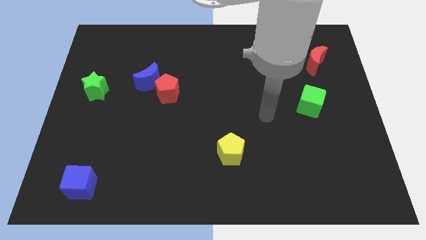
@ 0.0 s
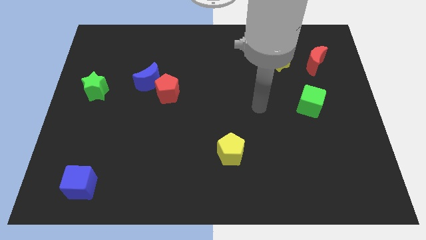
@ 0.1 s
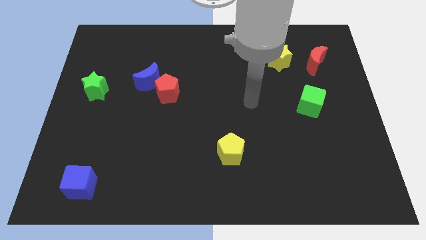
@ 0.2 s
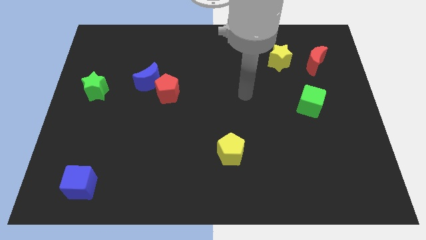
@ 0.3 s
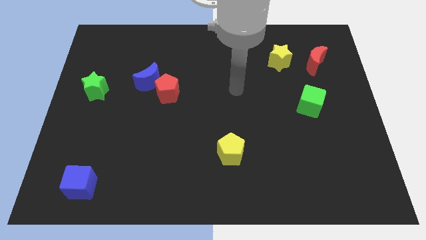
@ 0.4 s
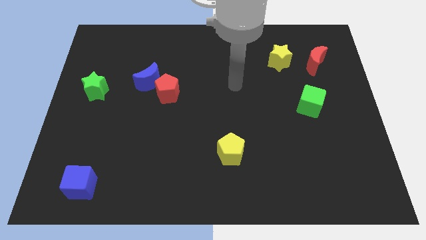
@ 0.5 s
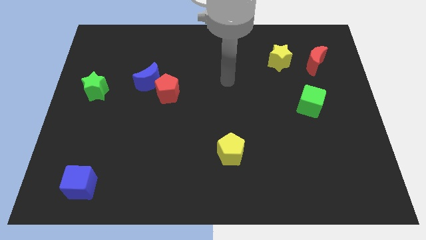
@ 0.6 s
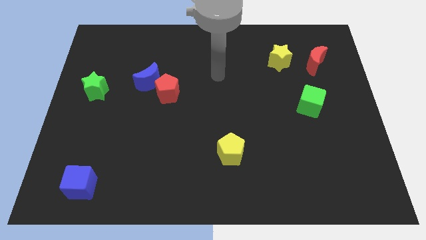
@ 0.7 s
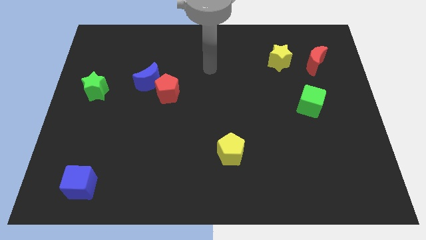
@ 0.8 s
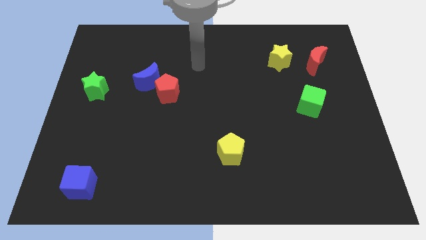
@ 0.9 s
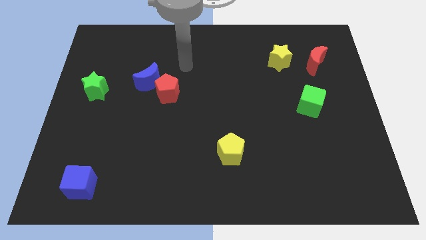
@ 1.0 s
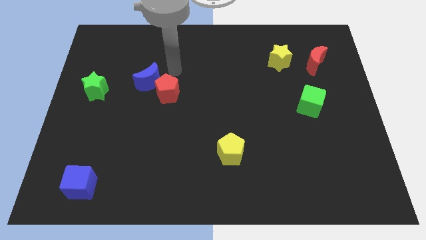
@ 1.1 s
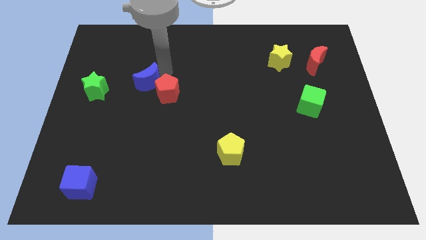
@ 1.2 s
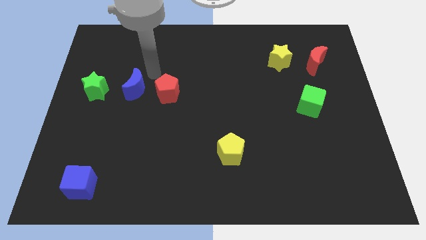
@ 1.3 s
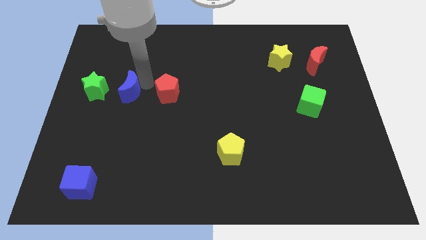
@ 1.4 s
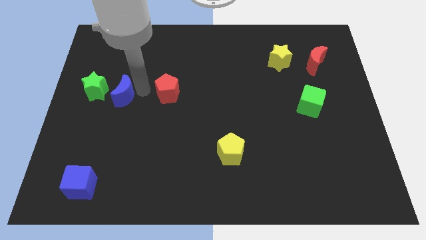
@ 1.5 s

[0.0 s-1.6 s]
move the red pentagon away from the blue moon

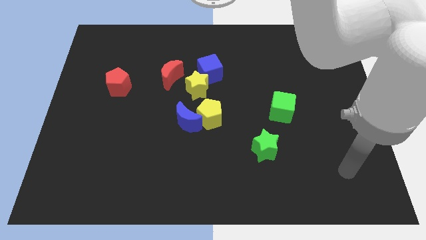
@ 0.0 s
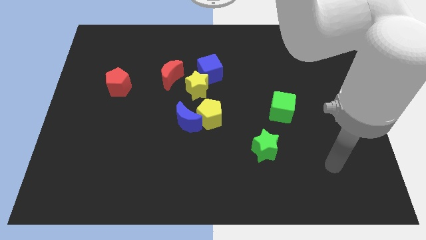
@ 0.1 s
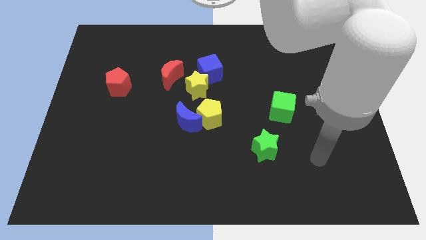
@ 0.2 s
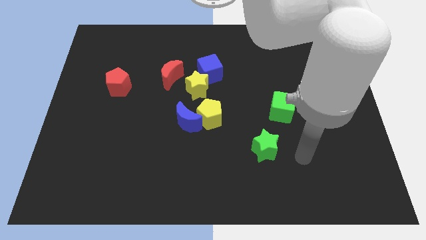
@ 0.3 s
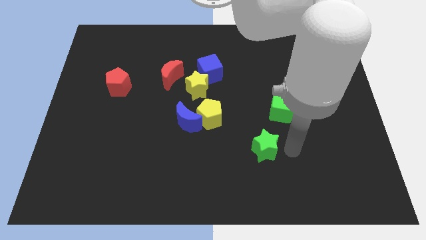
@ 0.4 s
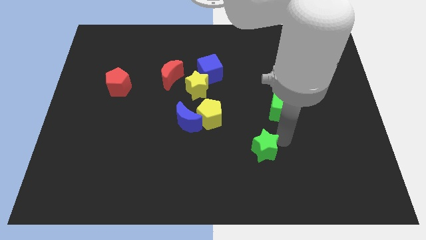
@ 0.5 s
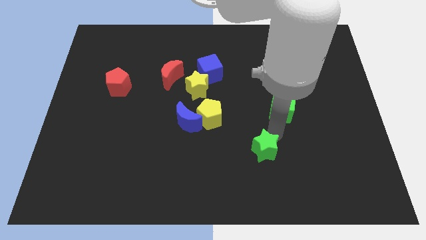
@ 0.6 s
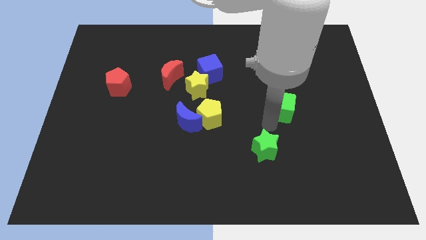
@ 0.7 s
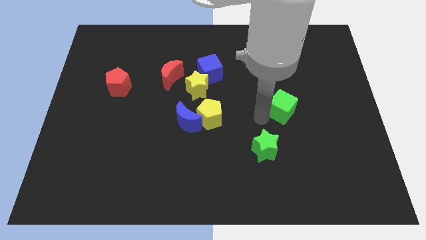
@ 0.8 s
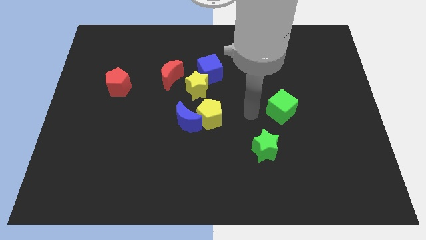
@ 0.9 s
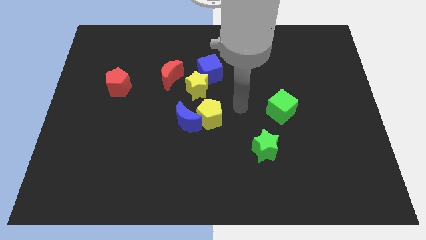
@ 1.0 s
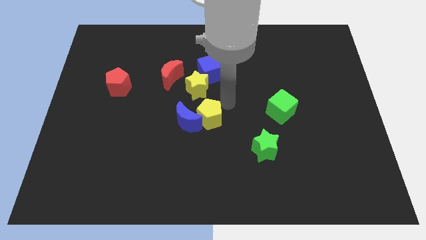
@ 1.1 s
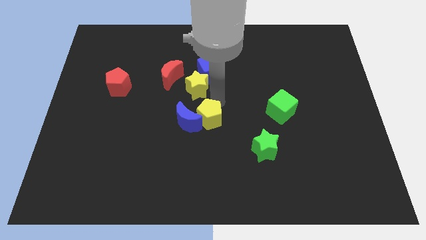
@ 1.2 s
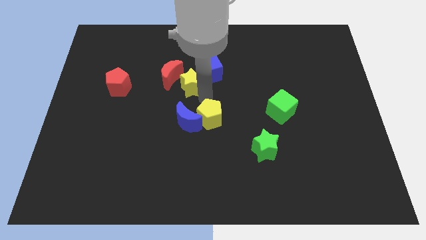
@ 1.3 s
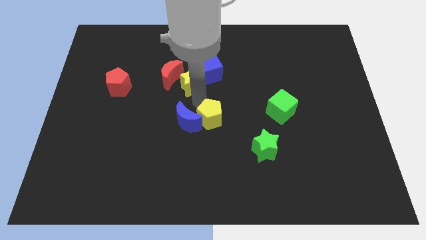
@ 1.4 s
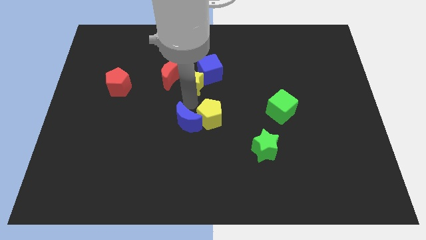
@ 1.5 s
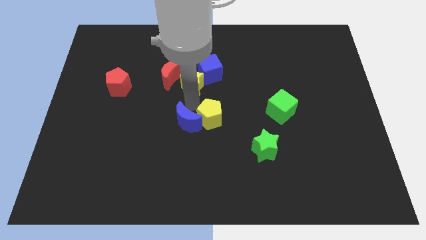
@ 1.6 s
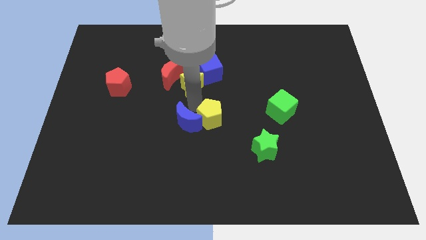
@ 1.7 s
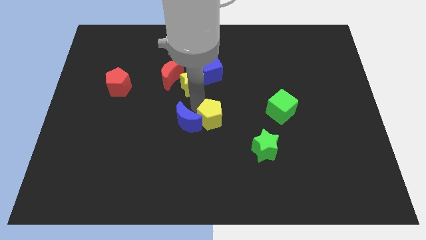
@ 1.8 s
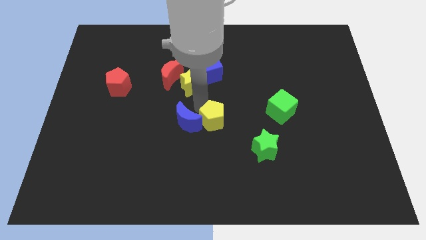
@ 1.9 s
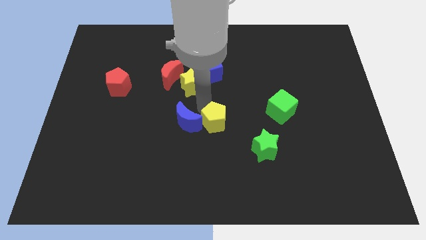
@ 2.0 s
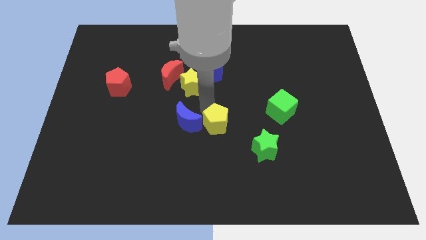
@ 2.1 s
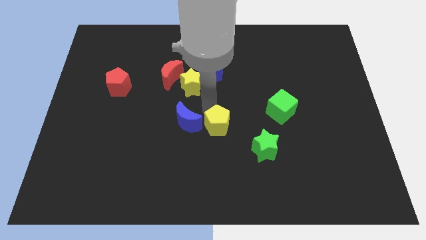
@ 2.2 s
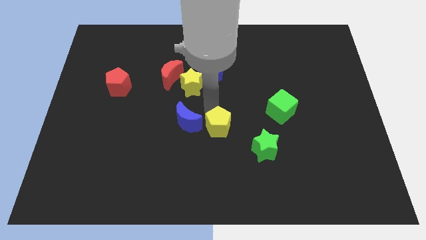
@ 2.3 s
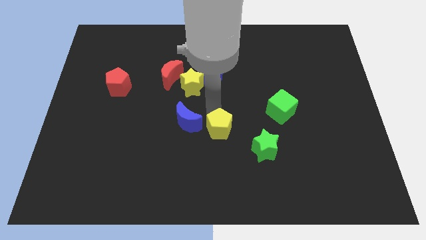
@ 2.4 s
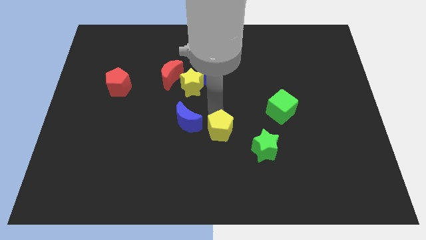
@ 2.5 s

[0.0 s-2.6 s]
separate the yellow pentagon from the blue moon and yellow star

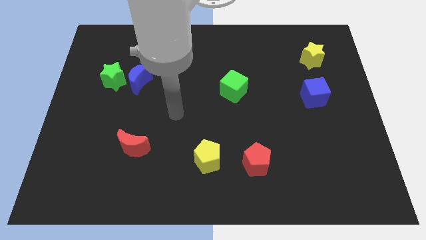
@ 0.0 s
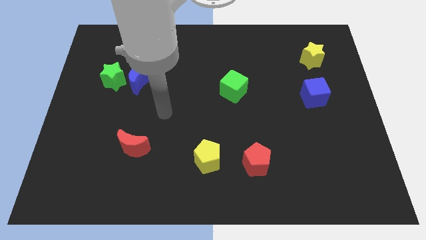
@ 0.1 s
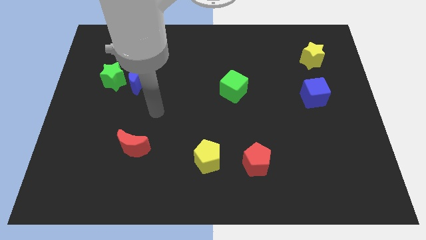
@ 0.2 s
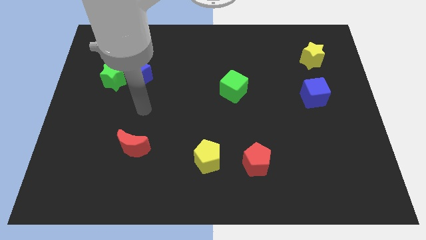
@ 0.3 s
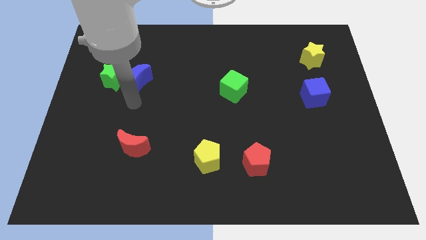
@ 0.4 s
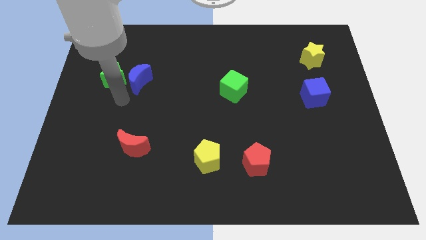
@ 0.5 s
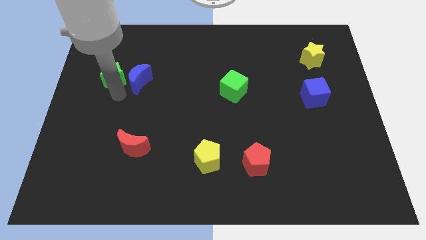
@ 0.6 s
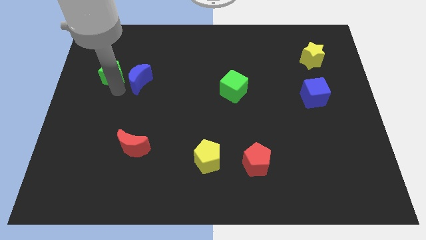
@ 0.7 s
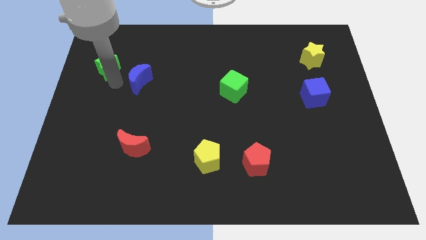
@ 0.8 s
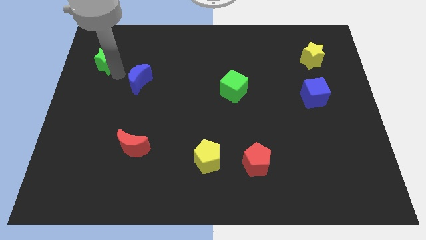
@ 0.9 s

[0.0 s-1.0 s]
move the blue moon away from the green star

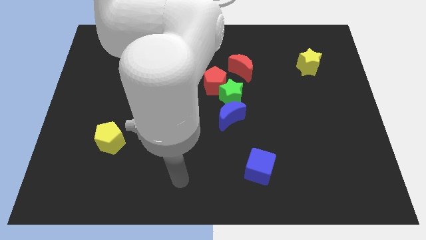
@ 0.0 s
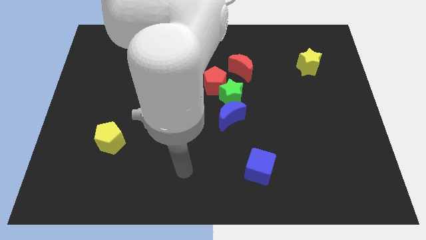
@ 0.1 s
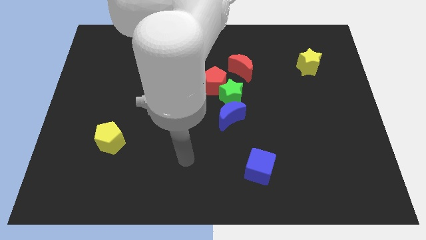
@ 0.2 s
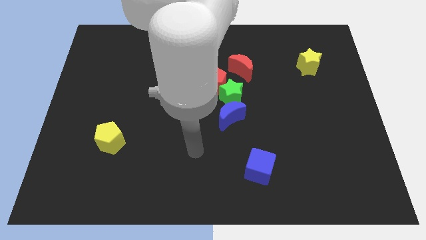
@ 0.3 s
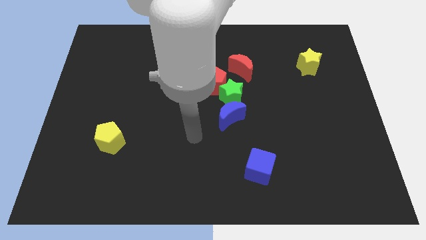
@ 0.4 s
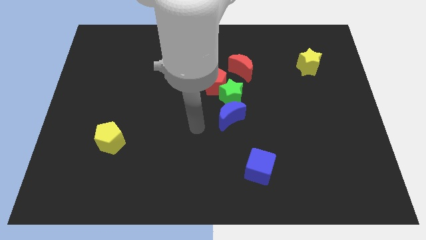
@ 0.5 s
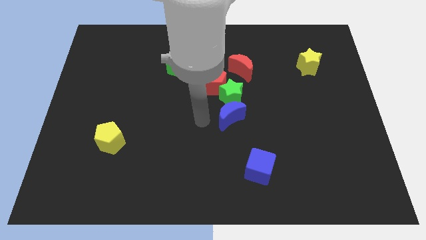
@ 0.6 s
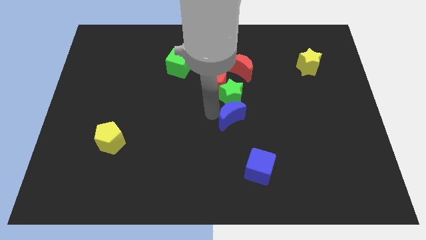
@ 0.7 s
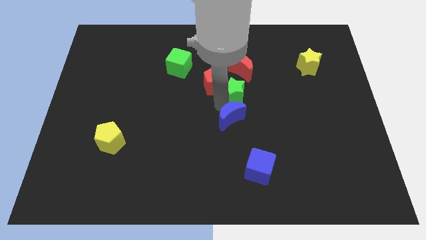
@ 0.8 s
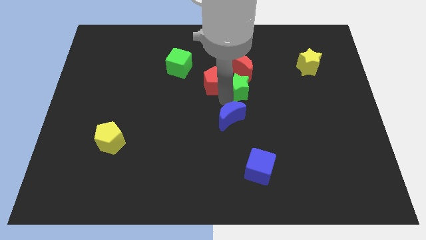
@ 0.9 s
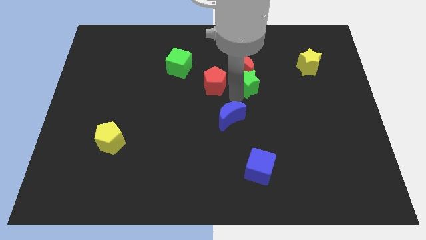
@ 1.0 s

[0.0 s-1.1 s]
separate the blue moon from the green star

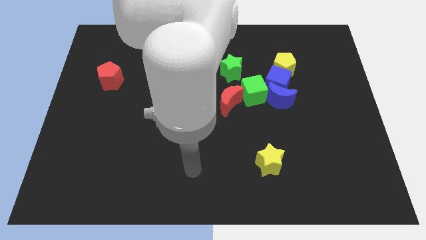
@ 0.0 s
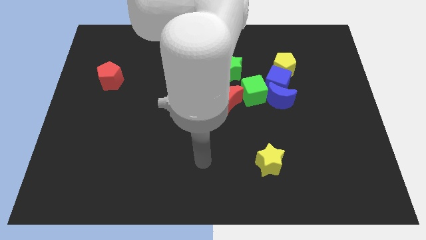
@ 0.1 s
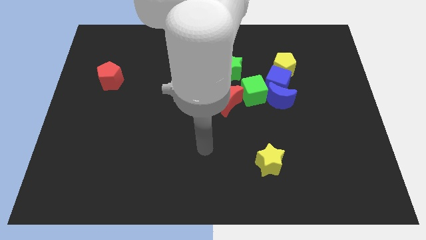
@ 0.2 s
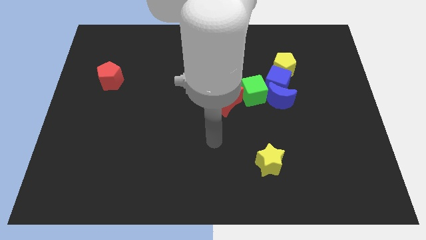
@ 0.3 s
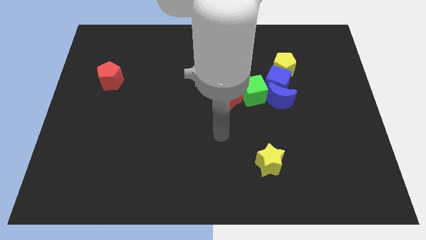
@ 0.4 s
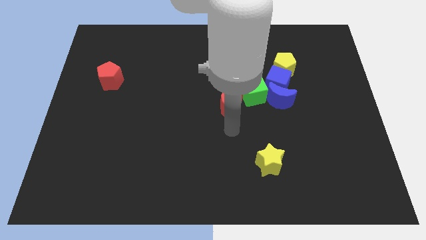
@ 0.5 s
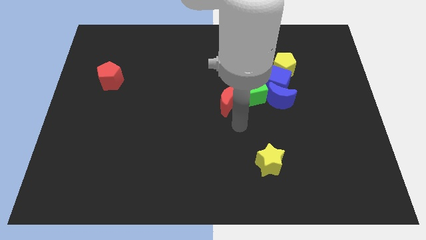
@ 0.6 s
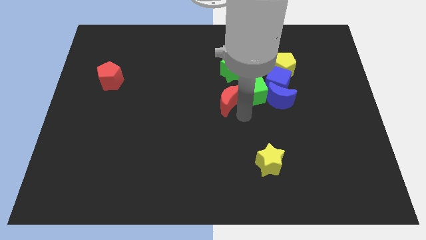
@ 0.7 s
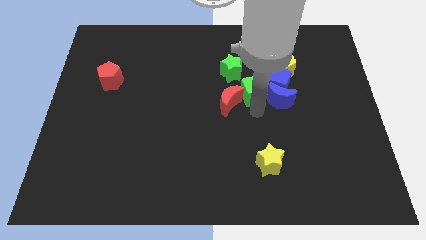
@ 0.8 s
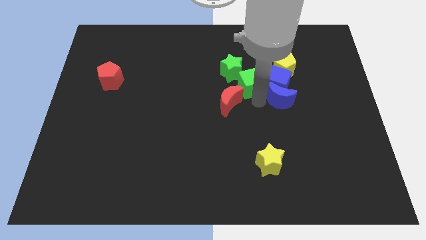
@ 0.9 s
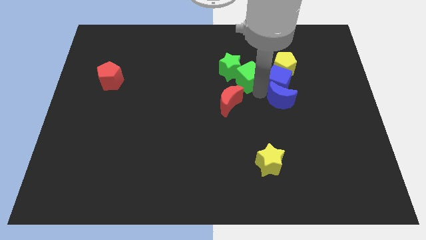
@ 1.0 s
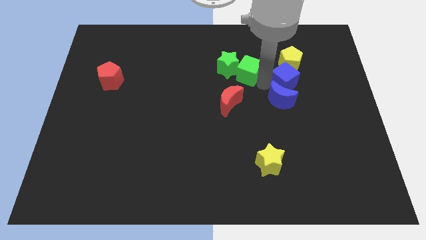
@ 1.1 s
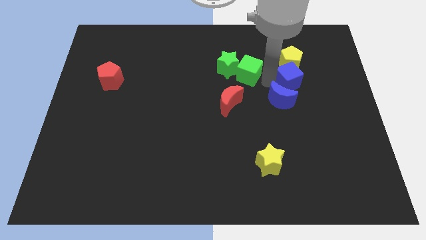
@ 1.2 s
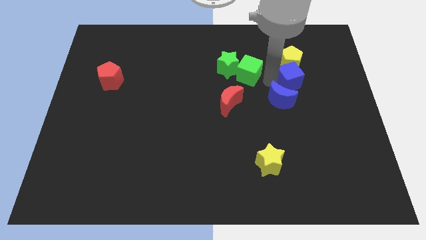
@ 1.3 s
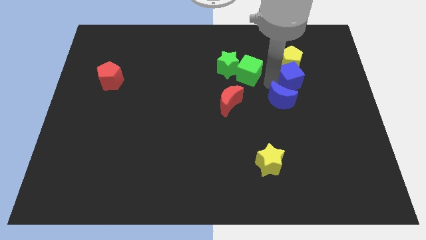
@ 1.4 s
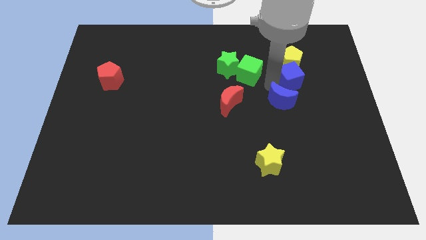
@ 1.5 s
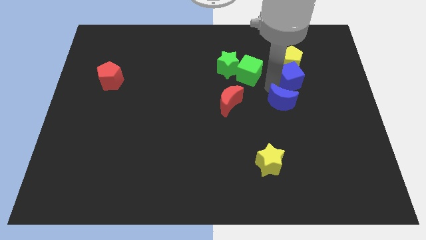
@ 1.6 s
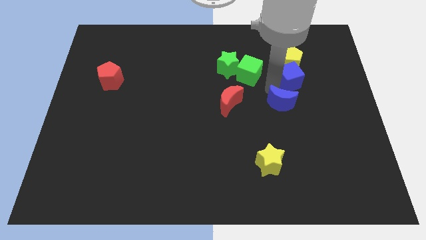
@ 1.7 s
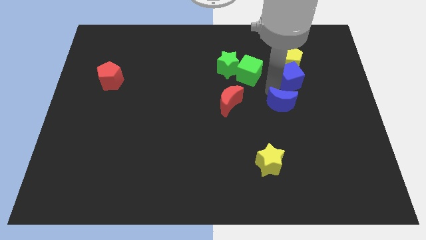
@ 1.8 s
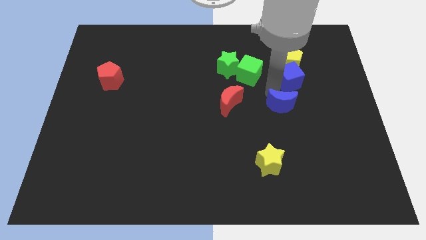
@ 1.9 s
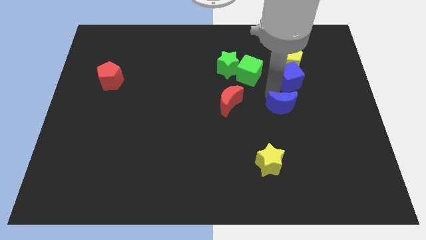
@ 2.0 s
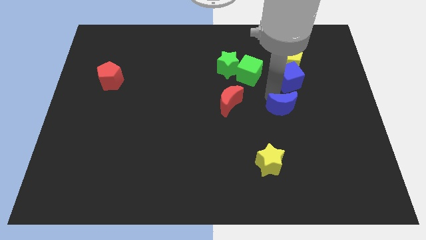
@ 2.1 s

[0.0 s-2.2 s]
pull the blue moon apart from the blue cube and green cube

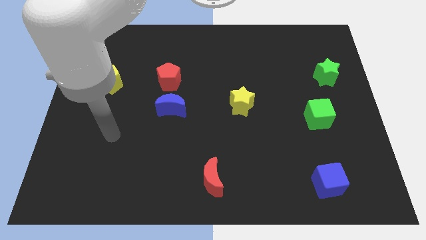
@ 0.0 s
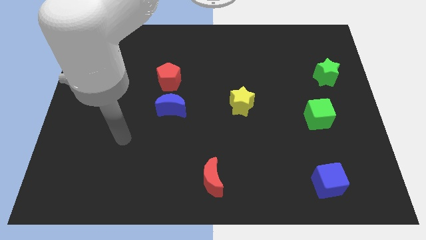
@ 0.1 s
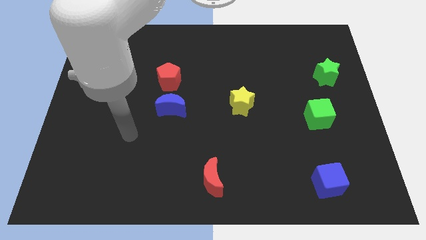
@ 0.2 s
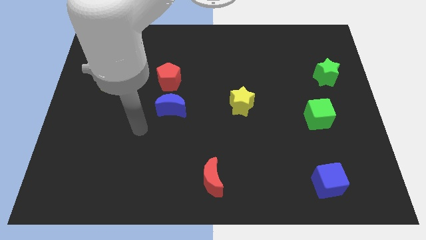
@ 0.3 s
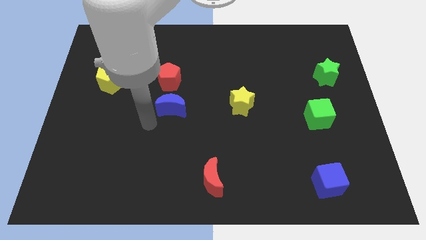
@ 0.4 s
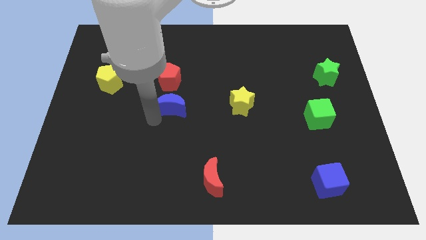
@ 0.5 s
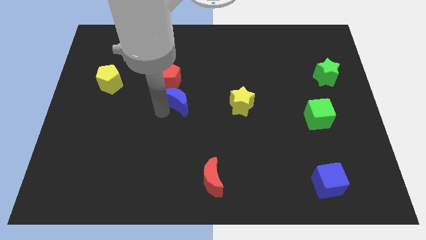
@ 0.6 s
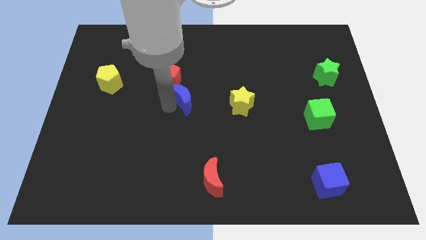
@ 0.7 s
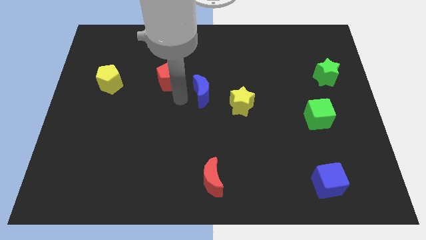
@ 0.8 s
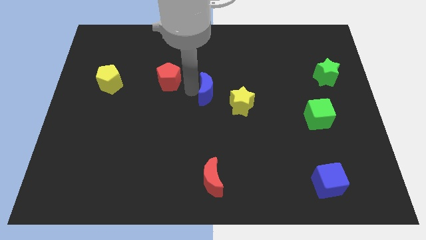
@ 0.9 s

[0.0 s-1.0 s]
separate the red pentagon from the blue moon
